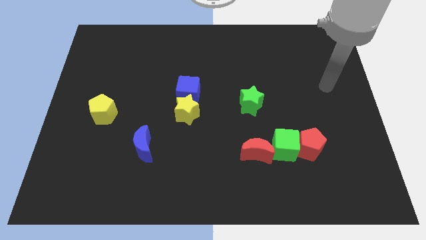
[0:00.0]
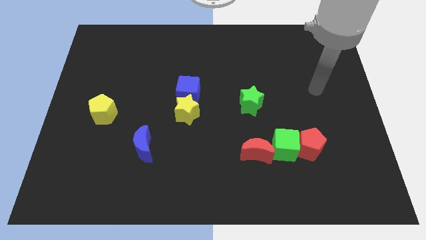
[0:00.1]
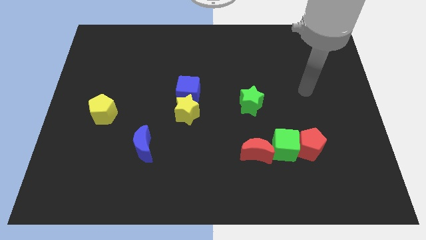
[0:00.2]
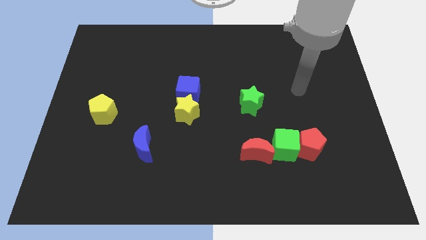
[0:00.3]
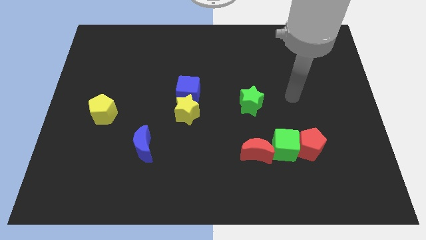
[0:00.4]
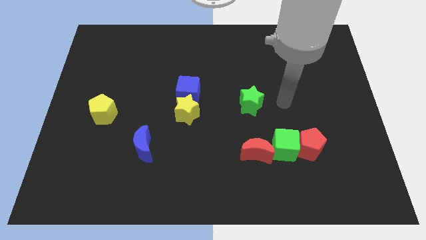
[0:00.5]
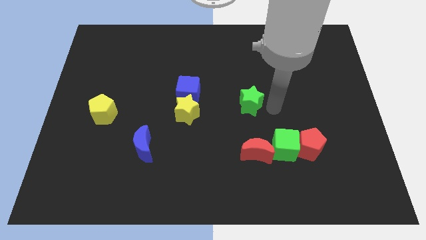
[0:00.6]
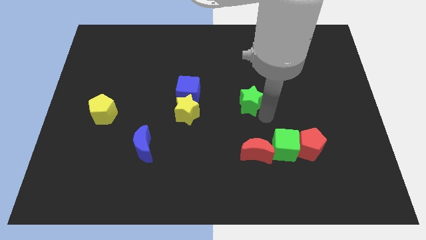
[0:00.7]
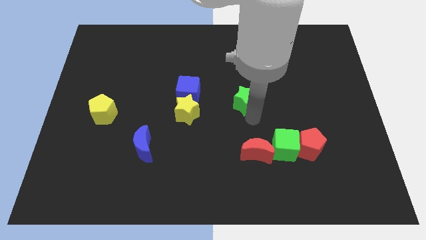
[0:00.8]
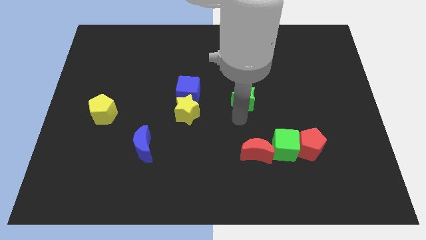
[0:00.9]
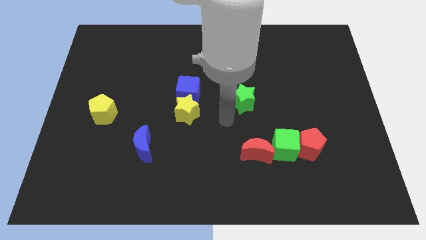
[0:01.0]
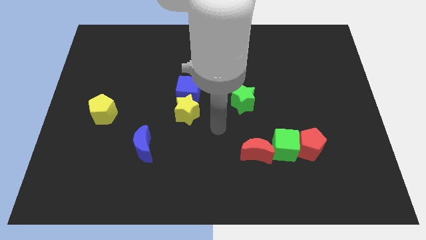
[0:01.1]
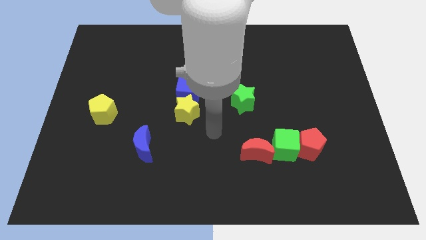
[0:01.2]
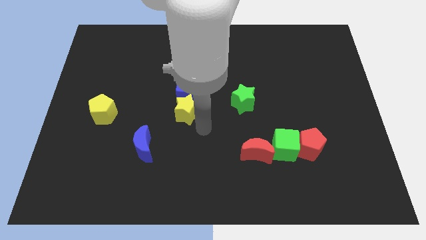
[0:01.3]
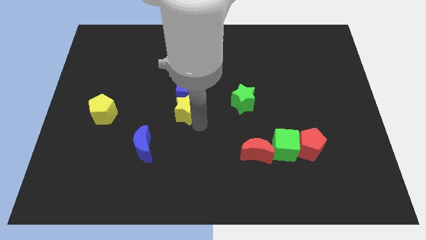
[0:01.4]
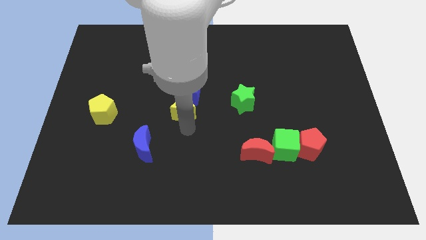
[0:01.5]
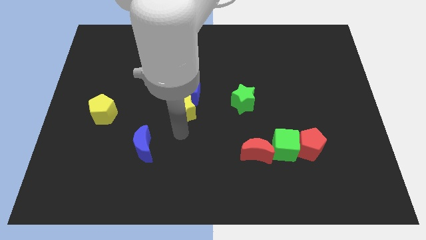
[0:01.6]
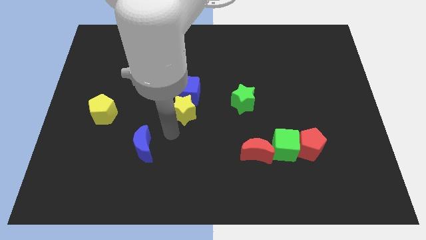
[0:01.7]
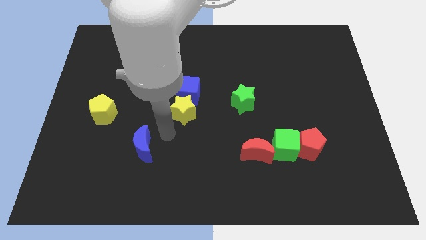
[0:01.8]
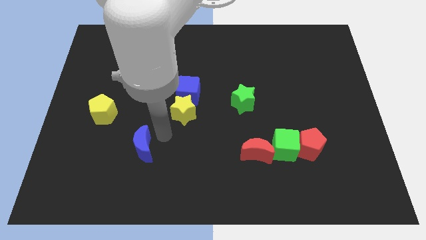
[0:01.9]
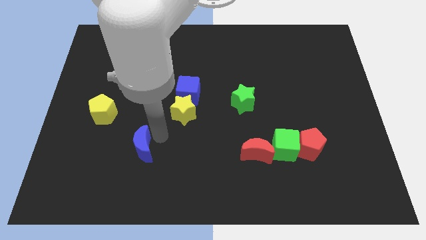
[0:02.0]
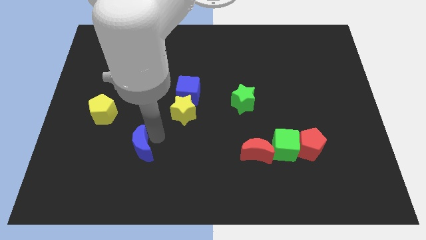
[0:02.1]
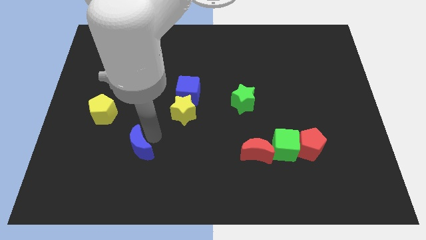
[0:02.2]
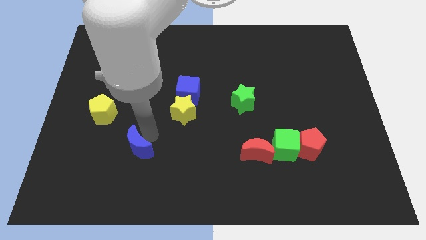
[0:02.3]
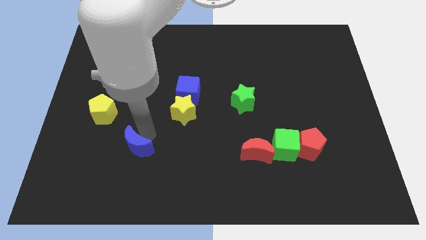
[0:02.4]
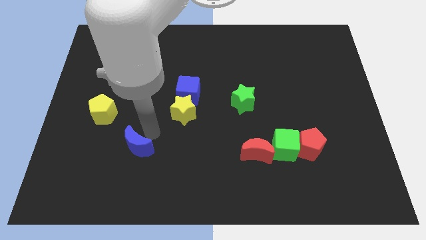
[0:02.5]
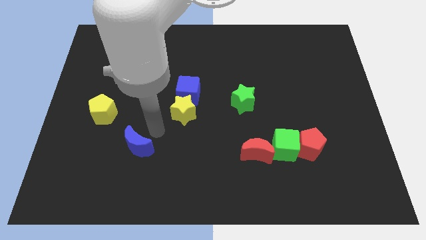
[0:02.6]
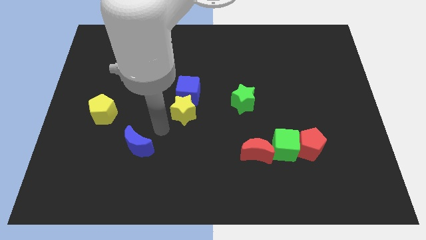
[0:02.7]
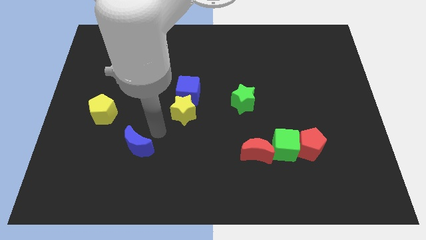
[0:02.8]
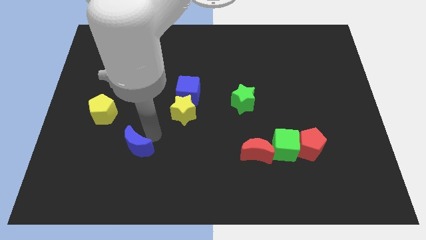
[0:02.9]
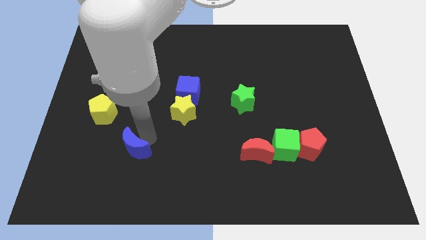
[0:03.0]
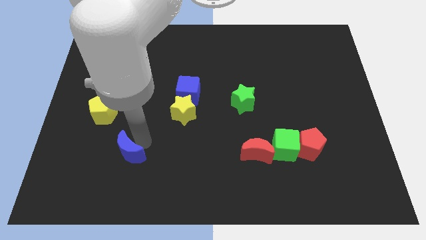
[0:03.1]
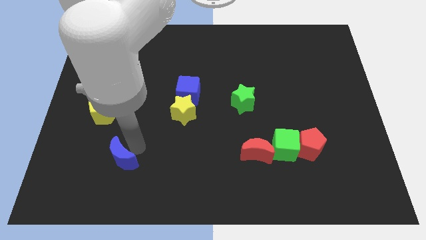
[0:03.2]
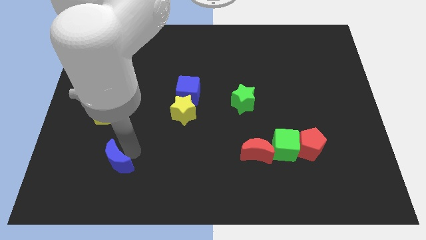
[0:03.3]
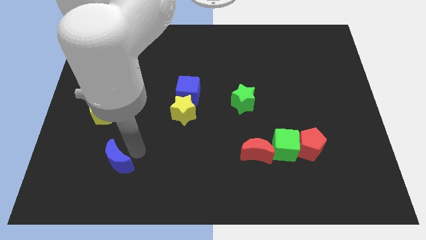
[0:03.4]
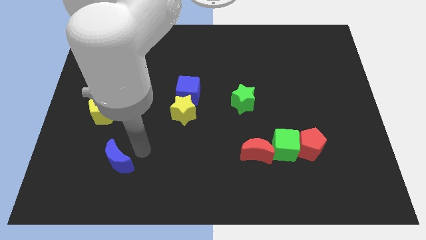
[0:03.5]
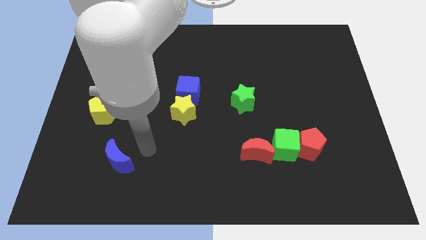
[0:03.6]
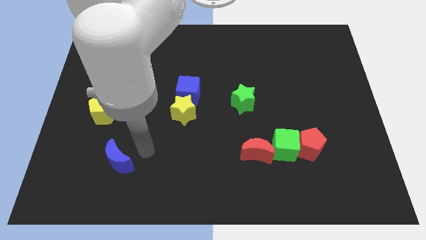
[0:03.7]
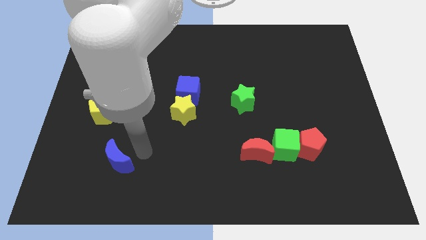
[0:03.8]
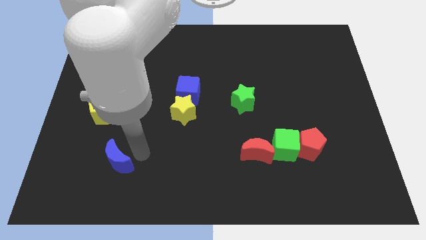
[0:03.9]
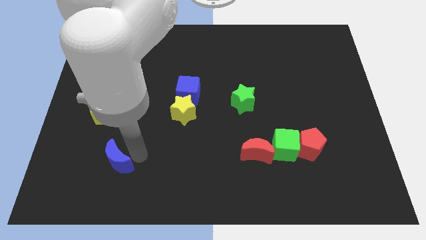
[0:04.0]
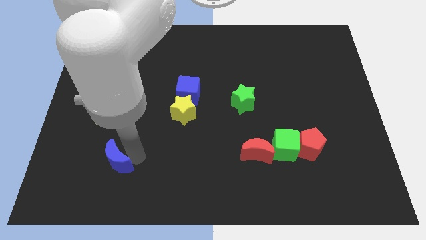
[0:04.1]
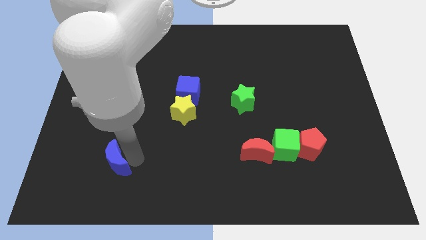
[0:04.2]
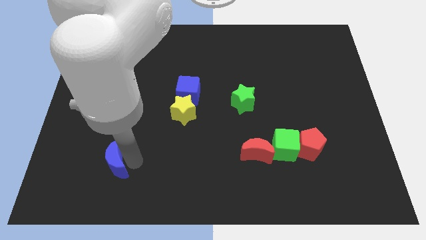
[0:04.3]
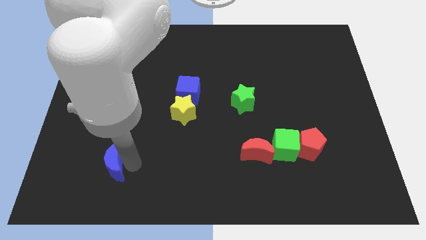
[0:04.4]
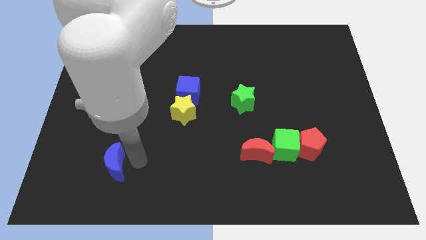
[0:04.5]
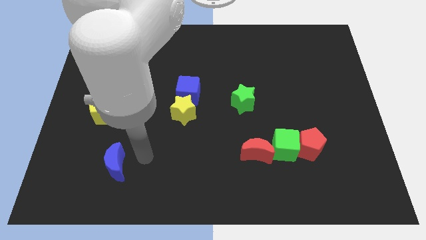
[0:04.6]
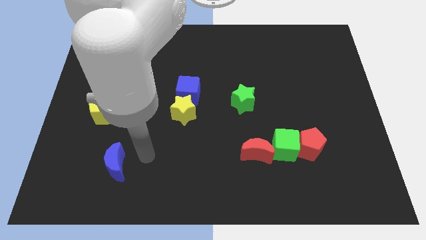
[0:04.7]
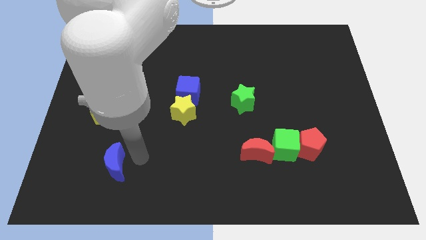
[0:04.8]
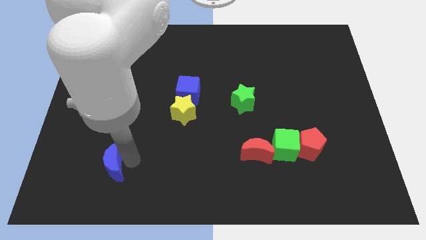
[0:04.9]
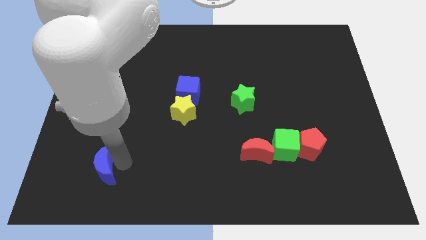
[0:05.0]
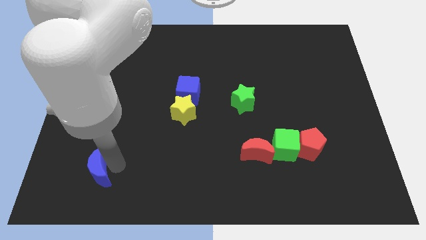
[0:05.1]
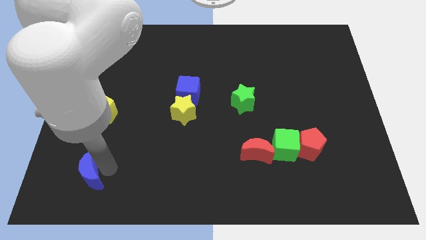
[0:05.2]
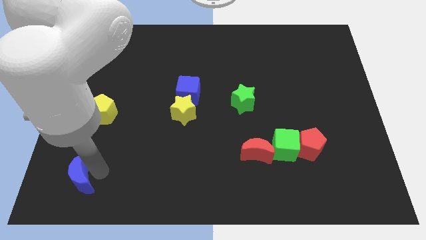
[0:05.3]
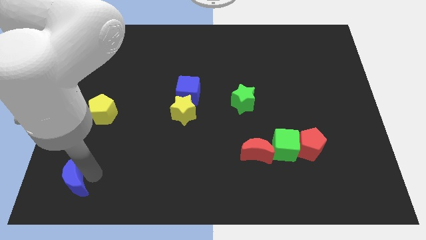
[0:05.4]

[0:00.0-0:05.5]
slide the blue moon to the bottom left

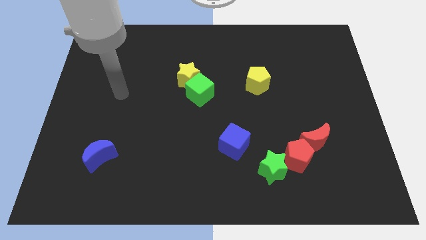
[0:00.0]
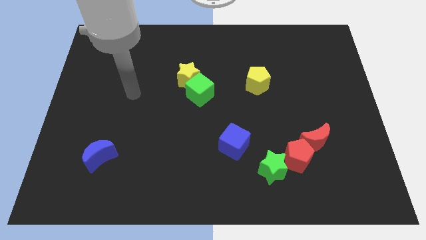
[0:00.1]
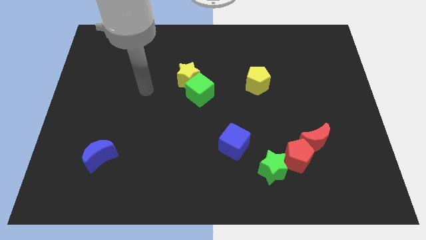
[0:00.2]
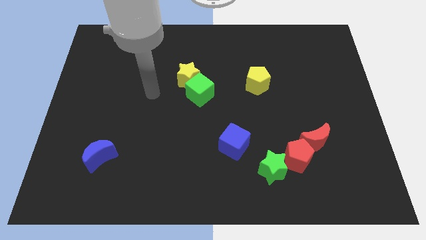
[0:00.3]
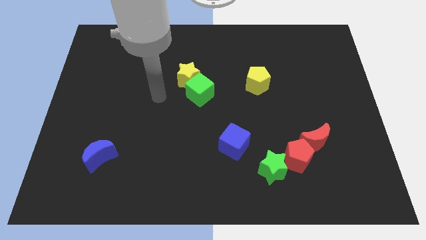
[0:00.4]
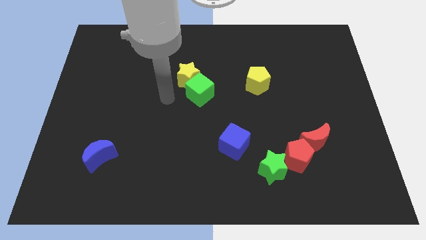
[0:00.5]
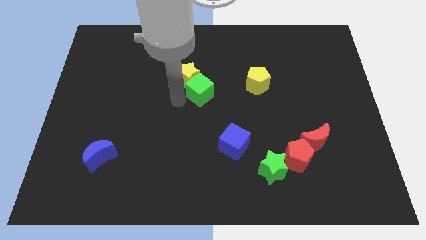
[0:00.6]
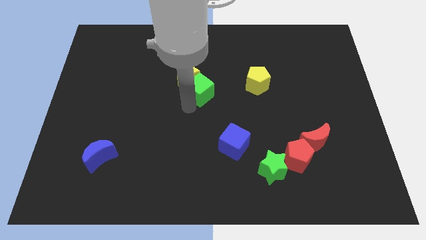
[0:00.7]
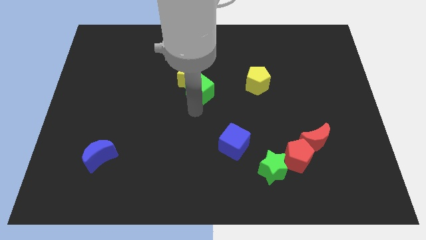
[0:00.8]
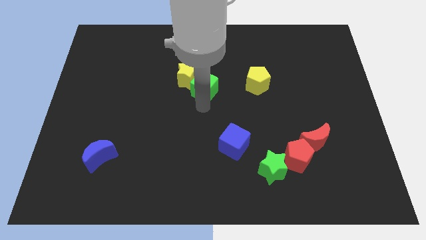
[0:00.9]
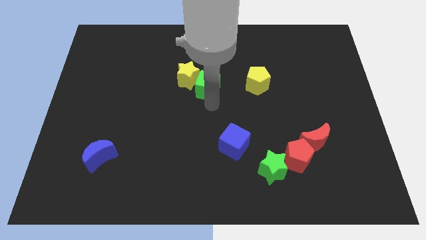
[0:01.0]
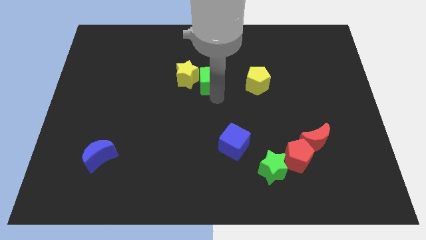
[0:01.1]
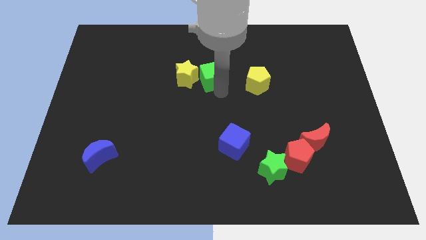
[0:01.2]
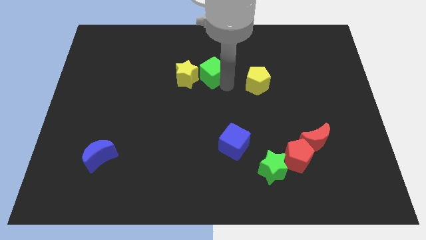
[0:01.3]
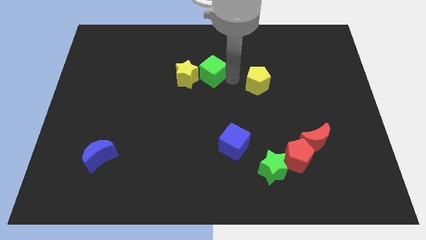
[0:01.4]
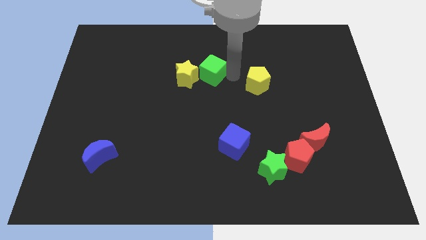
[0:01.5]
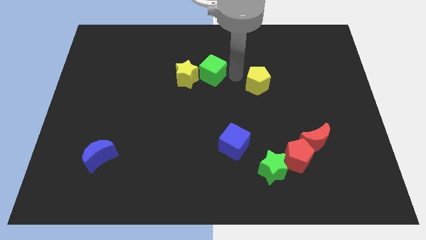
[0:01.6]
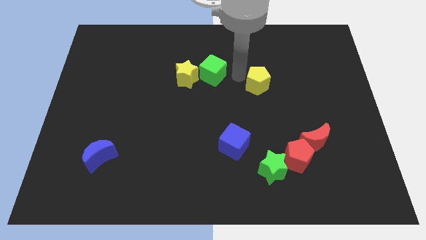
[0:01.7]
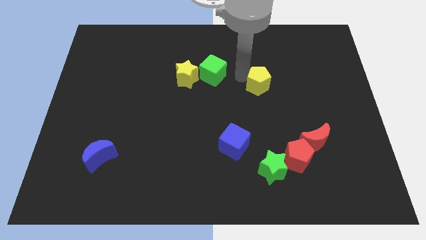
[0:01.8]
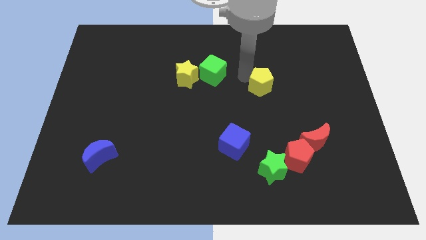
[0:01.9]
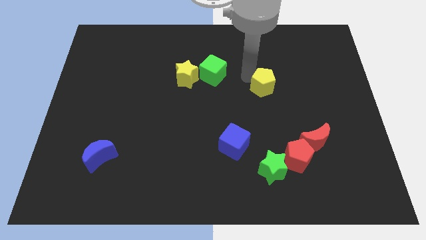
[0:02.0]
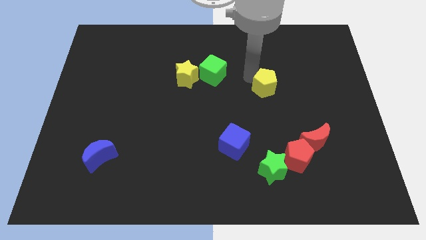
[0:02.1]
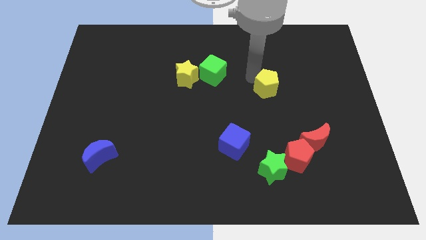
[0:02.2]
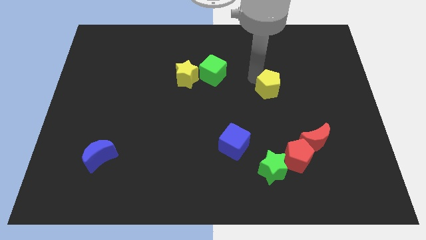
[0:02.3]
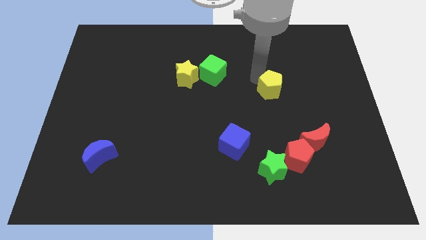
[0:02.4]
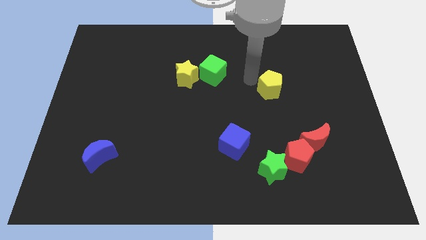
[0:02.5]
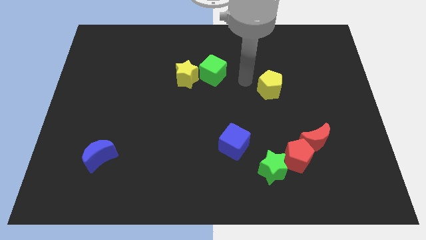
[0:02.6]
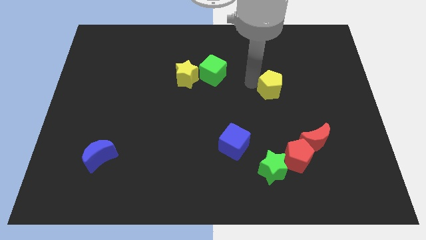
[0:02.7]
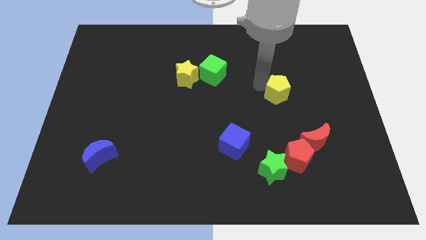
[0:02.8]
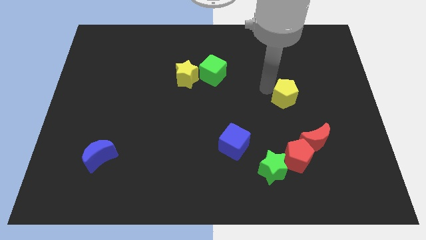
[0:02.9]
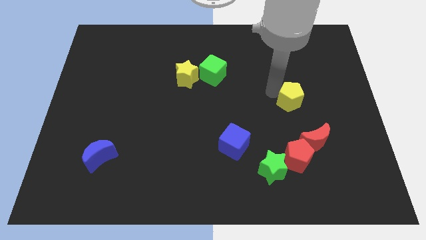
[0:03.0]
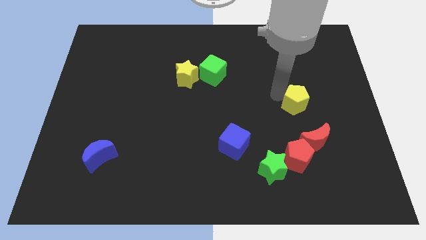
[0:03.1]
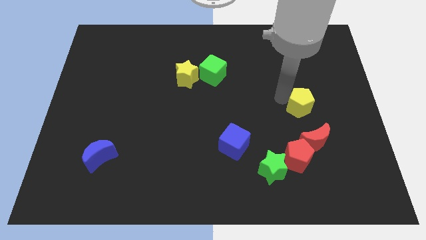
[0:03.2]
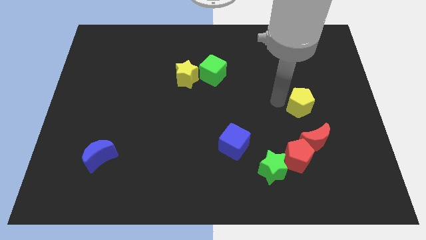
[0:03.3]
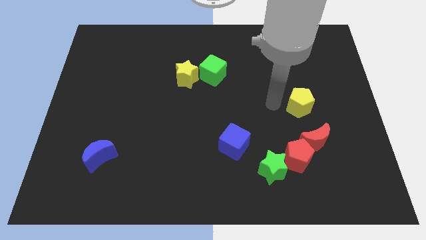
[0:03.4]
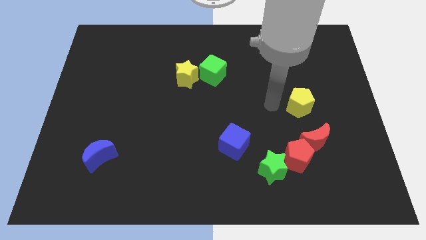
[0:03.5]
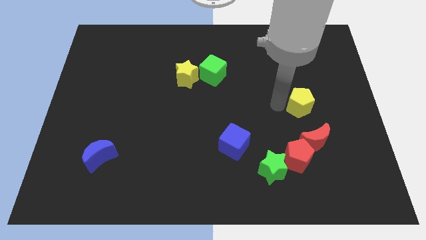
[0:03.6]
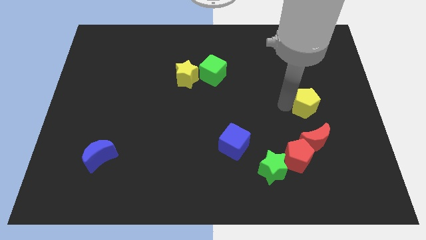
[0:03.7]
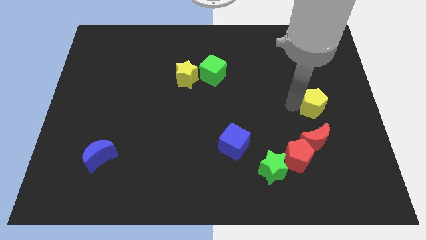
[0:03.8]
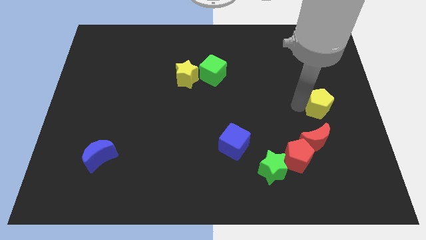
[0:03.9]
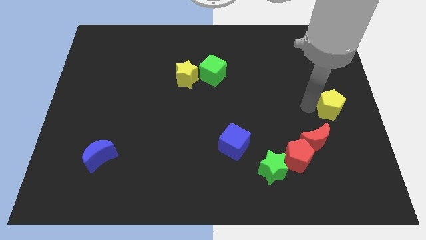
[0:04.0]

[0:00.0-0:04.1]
move the yellow pentagon to the right side of the board
